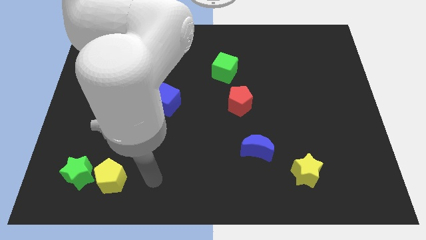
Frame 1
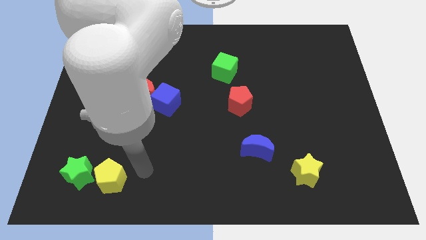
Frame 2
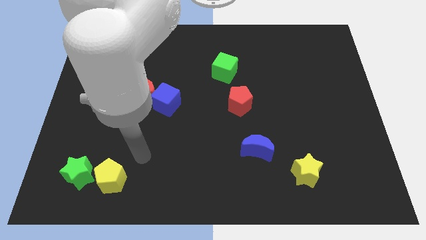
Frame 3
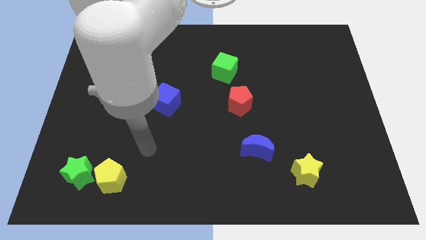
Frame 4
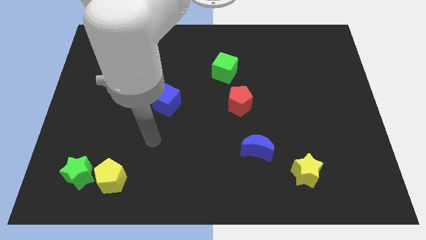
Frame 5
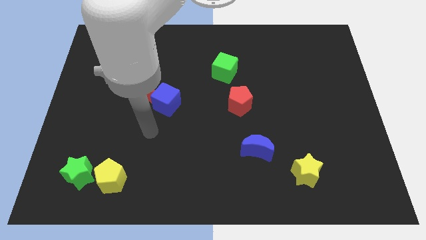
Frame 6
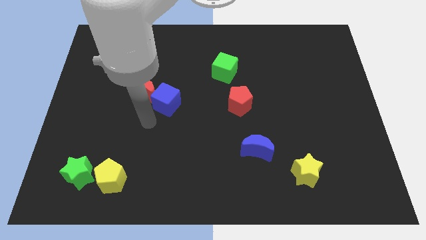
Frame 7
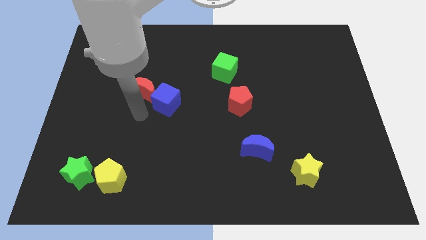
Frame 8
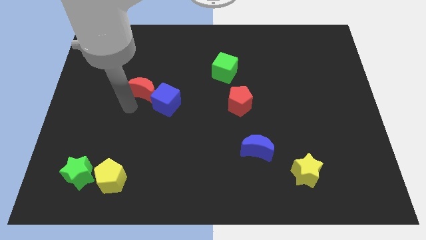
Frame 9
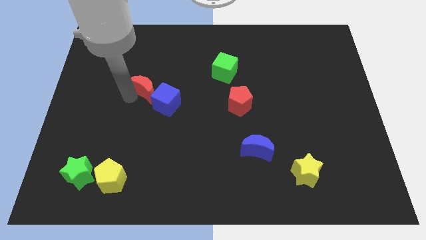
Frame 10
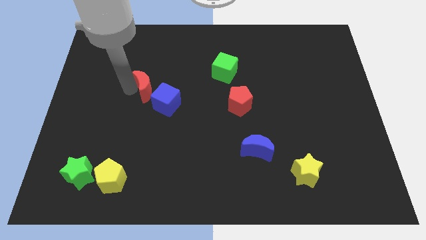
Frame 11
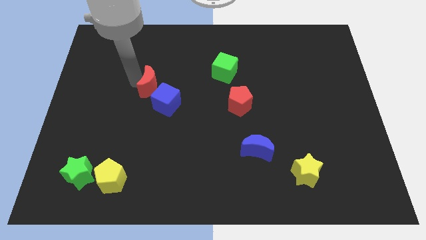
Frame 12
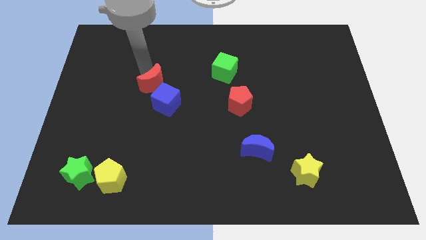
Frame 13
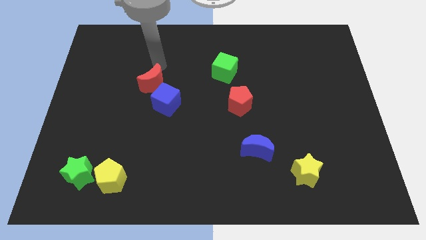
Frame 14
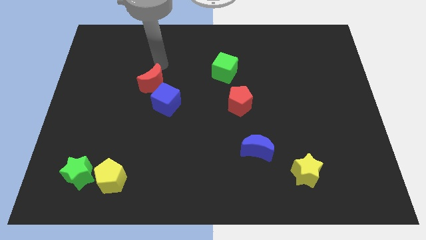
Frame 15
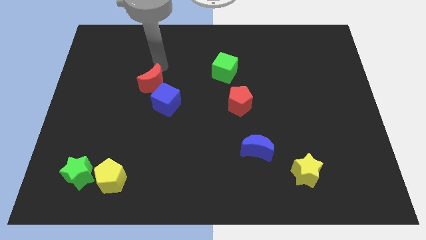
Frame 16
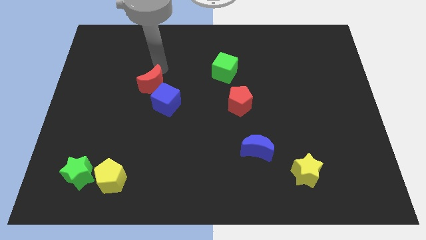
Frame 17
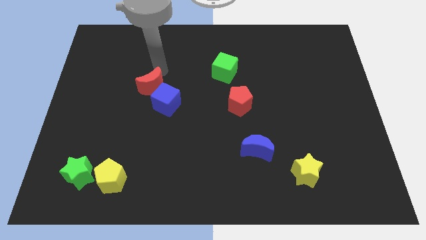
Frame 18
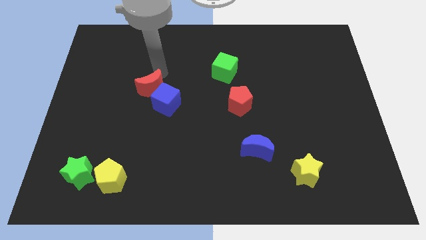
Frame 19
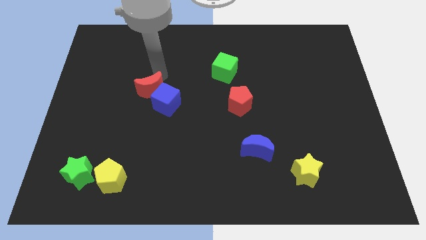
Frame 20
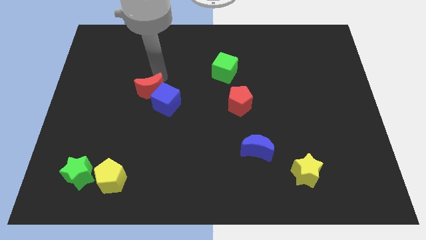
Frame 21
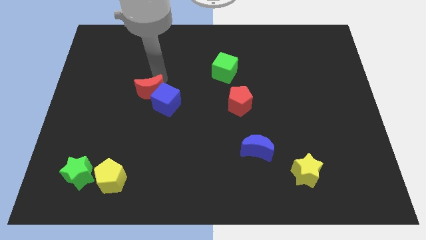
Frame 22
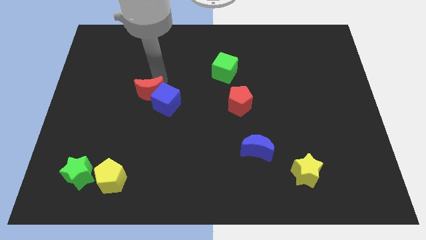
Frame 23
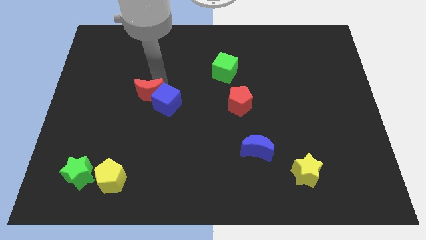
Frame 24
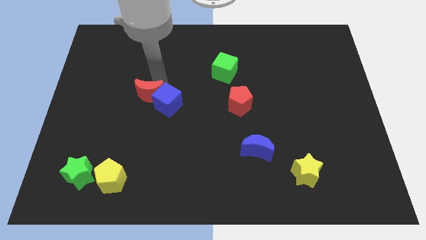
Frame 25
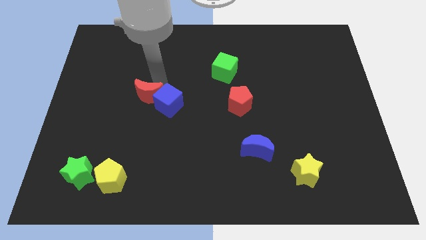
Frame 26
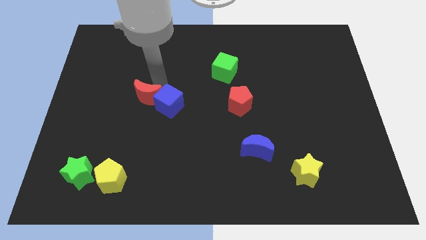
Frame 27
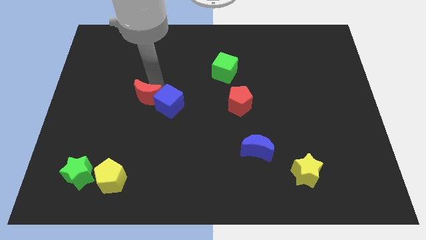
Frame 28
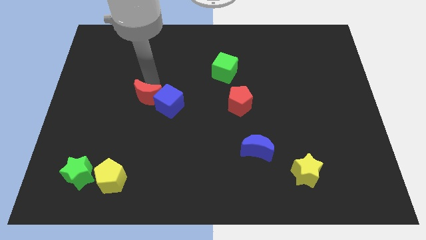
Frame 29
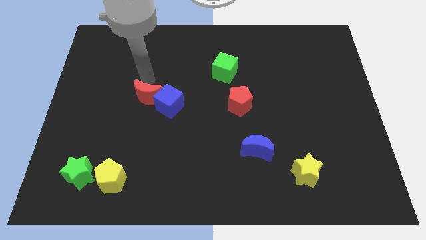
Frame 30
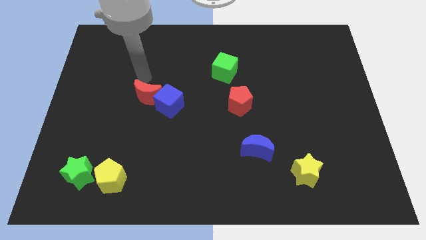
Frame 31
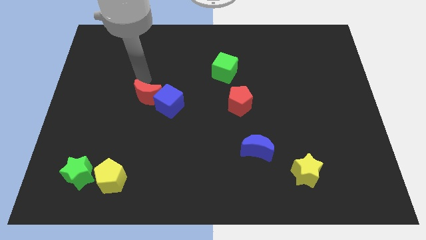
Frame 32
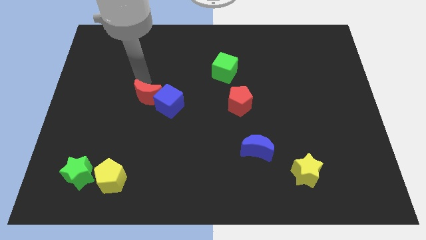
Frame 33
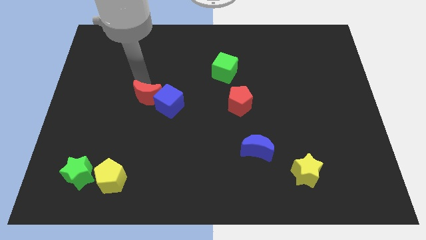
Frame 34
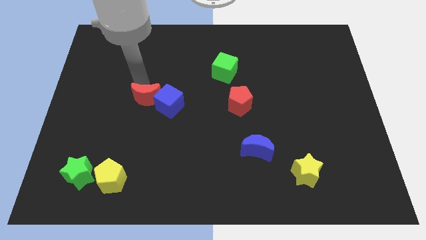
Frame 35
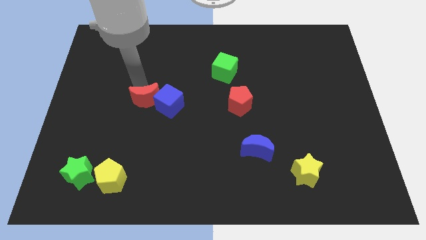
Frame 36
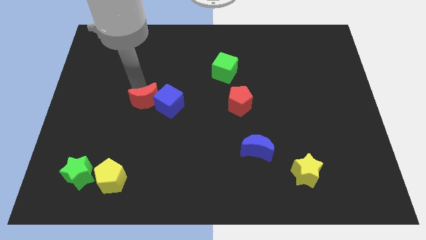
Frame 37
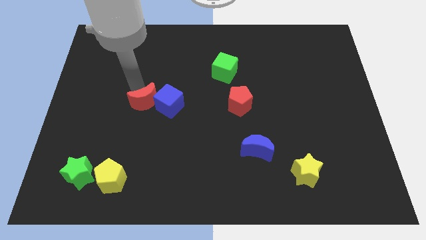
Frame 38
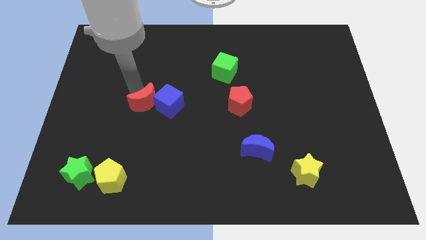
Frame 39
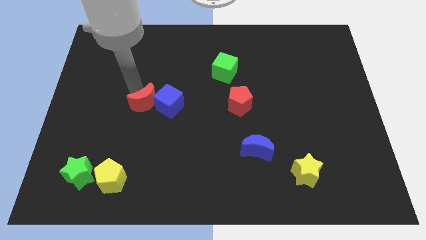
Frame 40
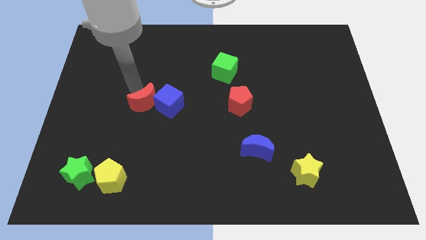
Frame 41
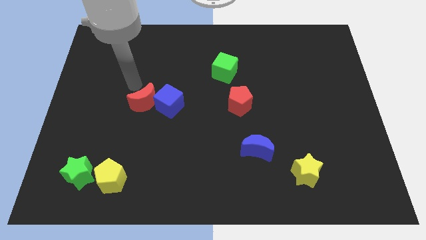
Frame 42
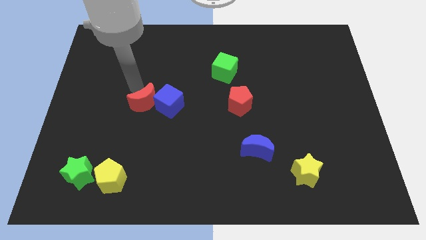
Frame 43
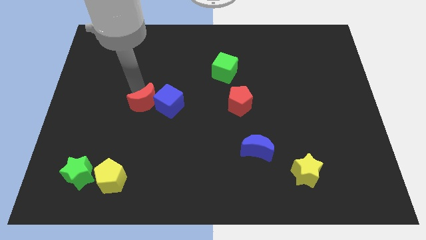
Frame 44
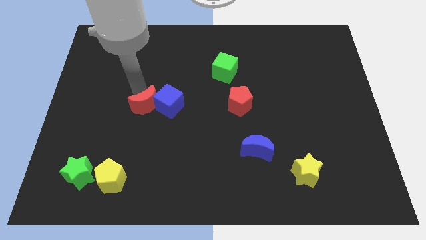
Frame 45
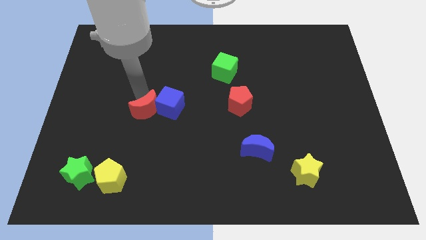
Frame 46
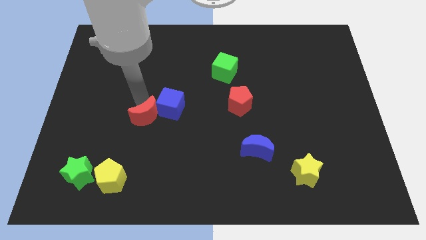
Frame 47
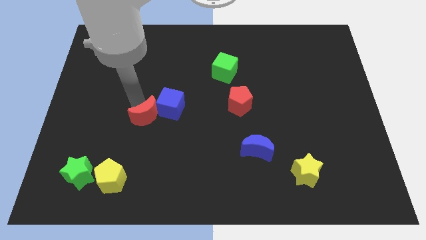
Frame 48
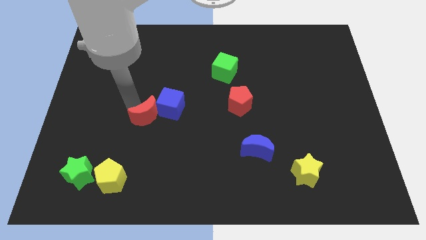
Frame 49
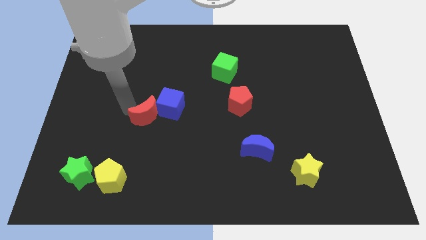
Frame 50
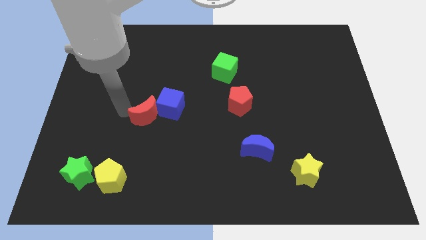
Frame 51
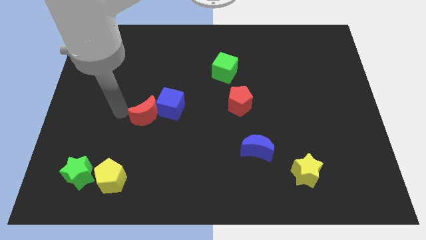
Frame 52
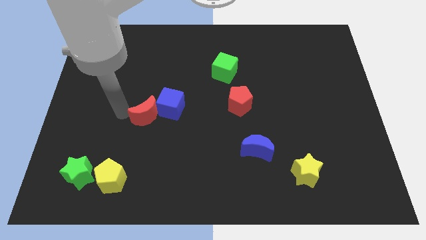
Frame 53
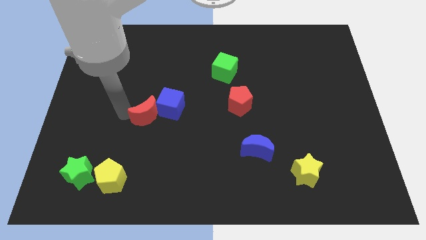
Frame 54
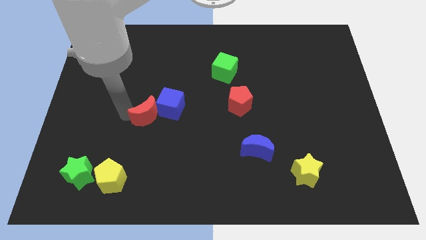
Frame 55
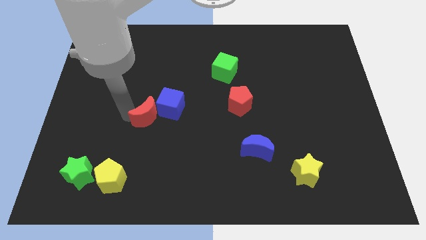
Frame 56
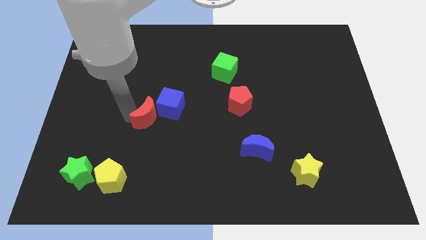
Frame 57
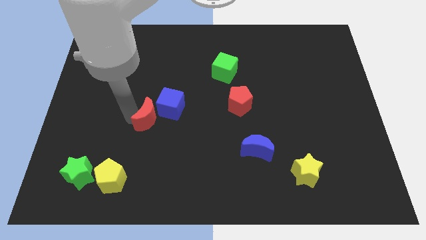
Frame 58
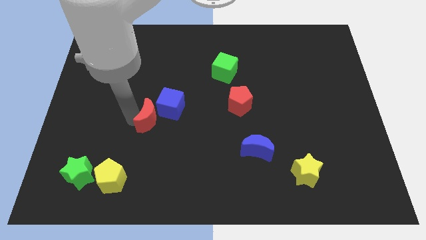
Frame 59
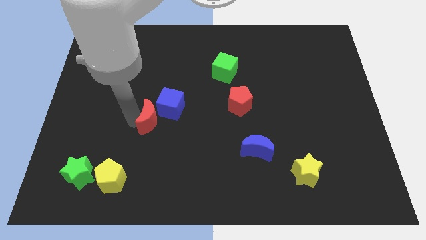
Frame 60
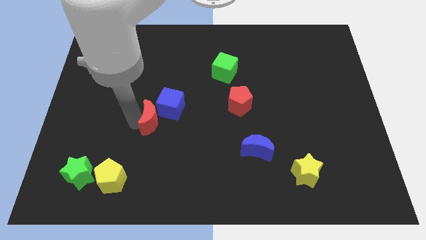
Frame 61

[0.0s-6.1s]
slide the red moon a bit down and to the right diagonally

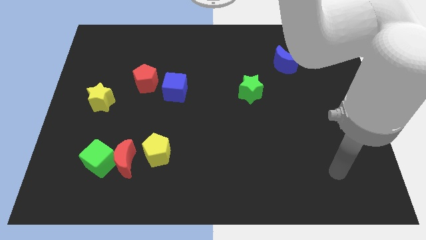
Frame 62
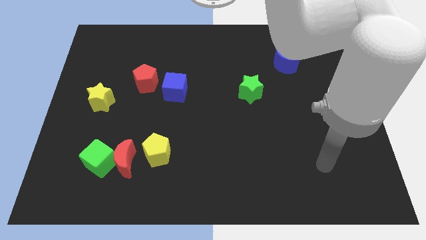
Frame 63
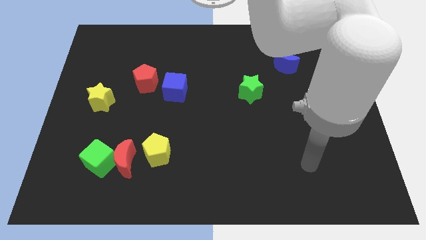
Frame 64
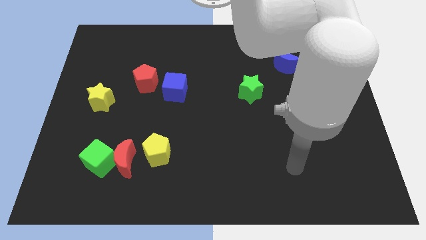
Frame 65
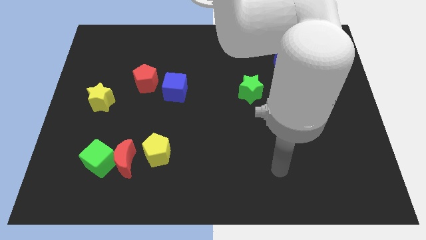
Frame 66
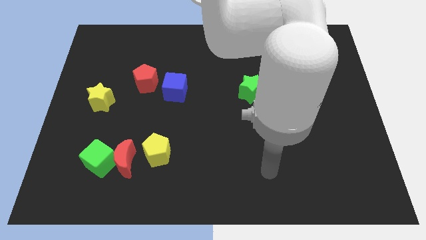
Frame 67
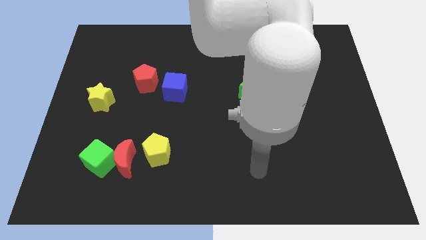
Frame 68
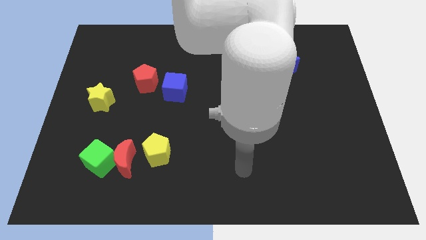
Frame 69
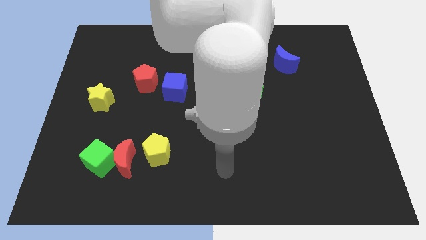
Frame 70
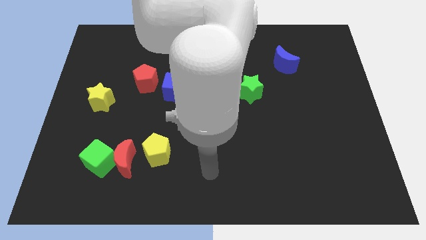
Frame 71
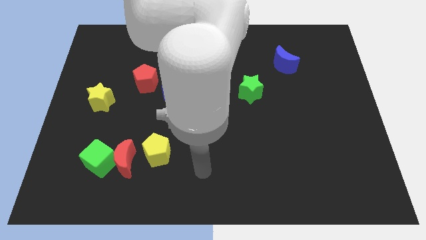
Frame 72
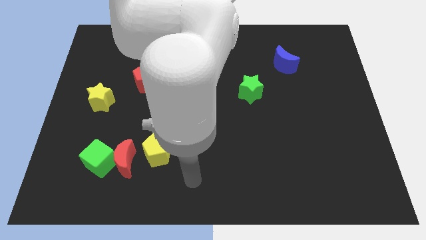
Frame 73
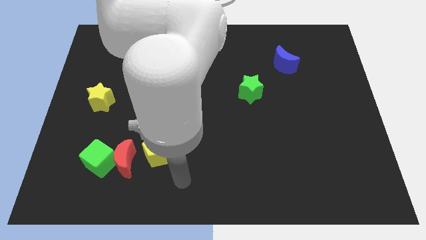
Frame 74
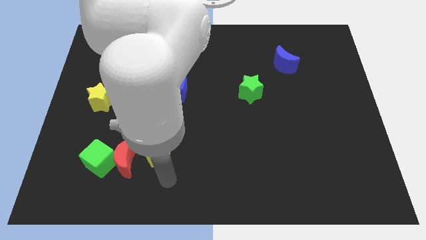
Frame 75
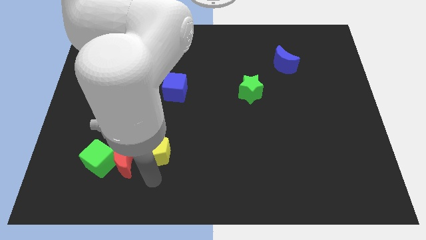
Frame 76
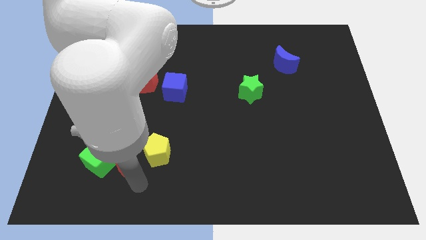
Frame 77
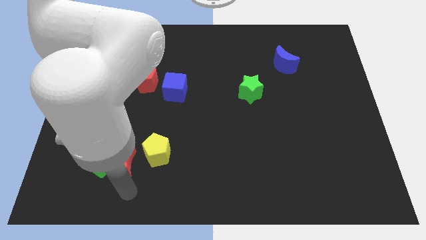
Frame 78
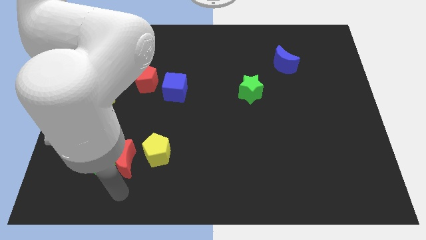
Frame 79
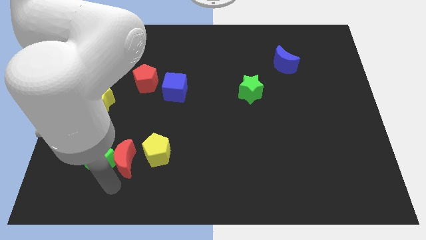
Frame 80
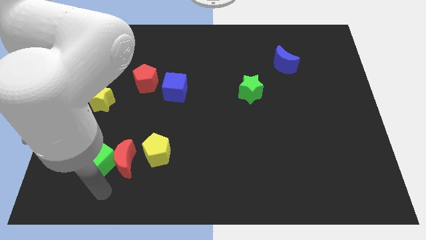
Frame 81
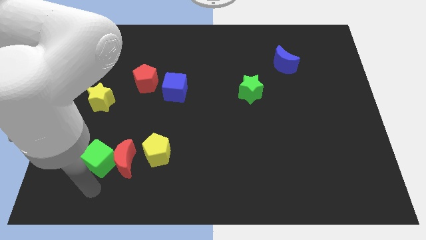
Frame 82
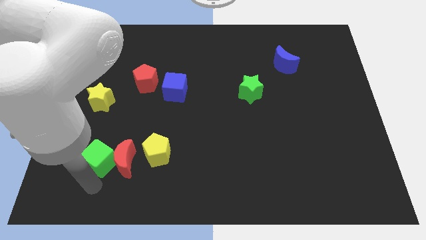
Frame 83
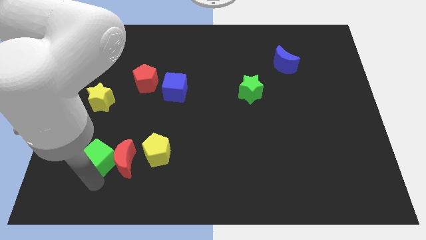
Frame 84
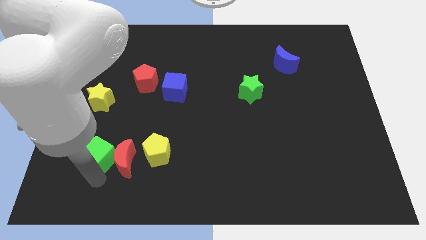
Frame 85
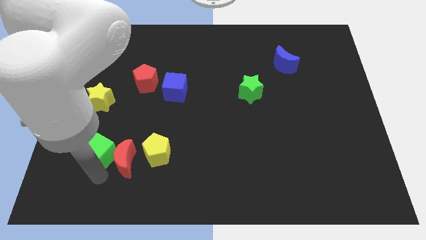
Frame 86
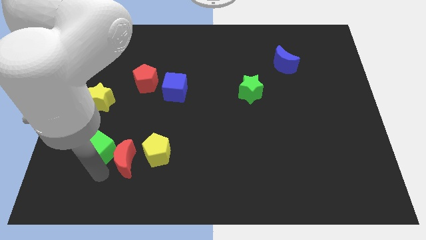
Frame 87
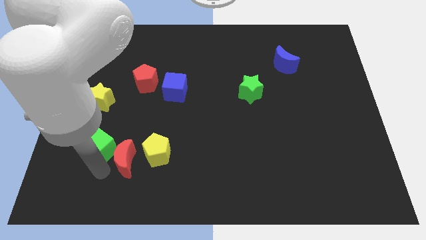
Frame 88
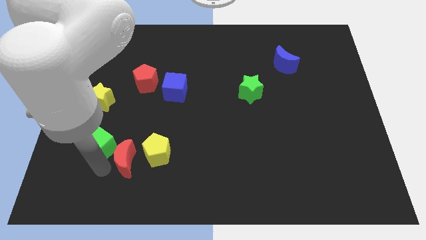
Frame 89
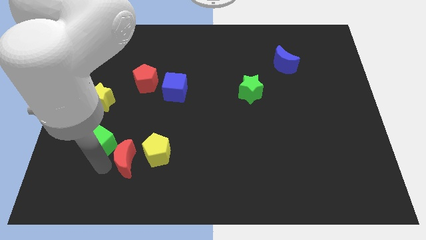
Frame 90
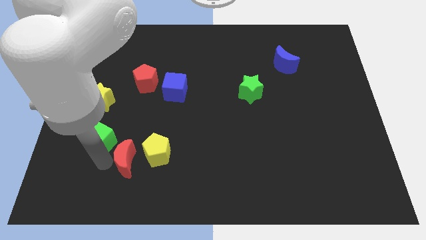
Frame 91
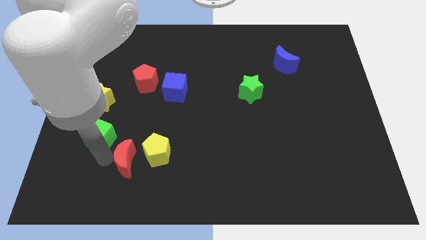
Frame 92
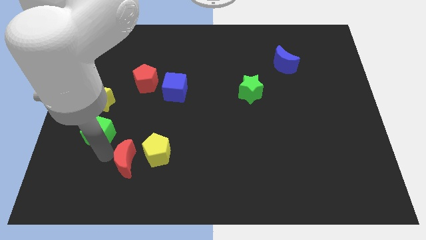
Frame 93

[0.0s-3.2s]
slightly slide the green cube up
